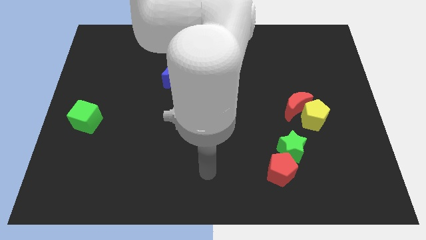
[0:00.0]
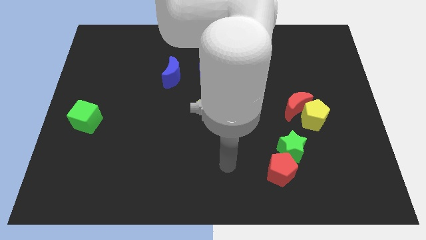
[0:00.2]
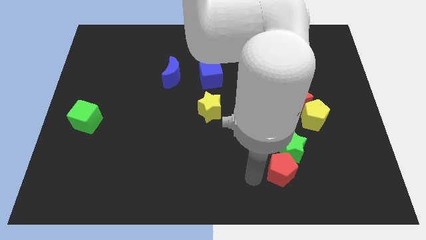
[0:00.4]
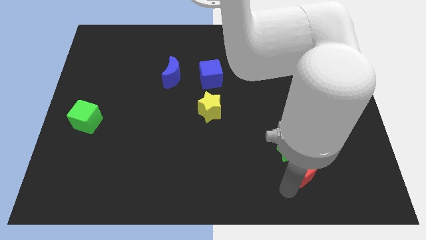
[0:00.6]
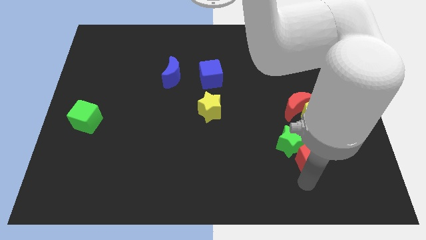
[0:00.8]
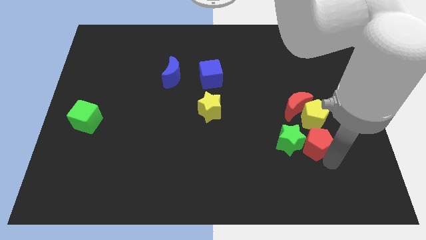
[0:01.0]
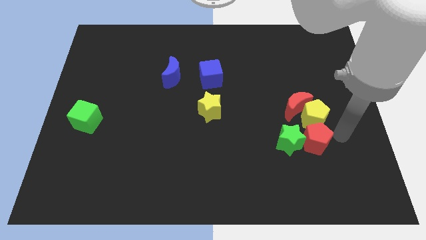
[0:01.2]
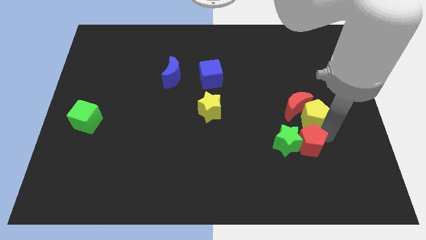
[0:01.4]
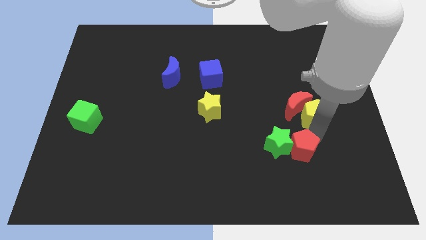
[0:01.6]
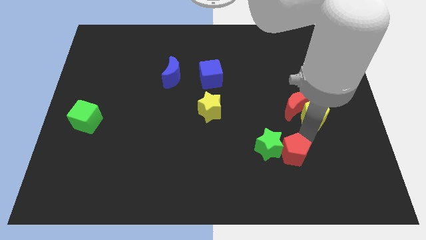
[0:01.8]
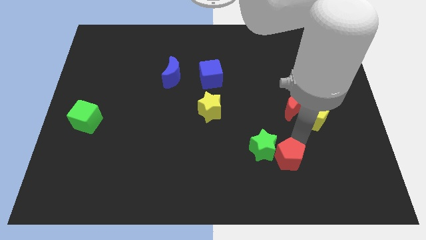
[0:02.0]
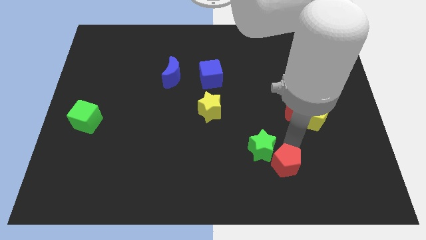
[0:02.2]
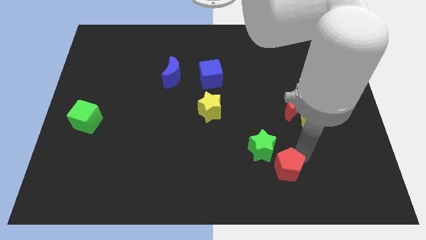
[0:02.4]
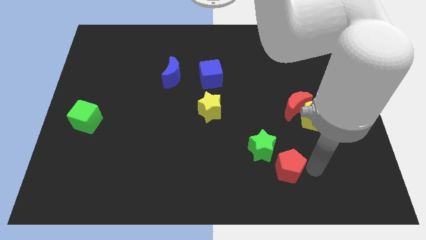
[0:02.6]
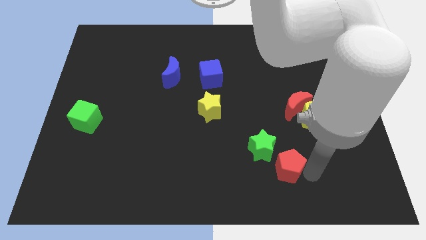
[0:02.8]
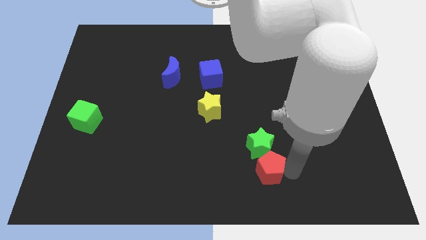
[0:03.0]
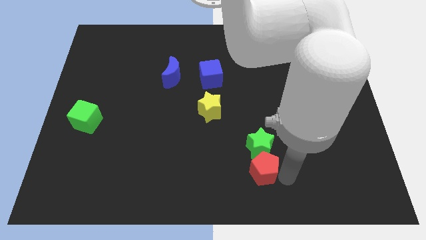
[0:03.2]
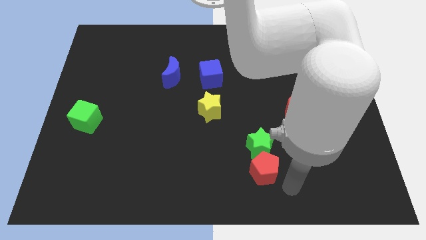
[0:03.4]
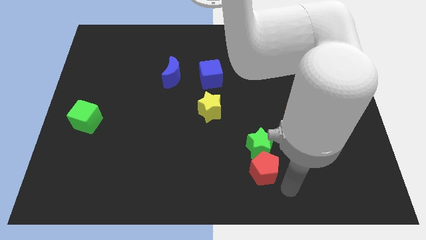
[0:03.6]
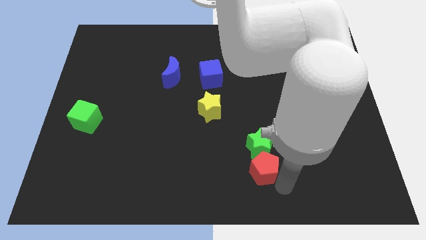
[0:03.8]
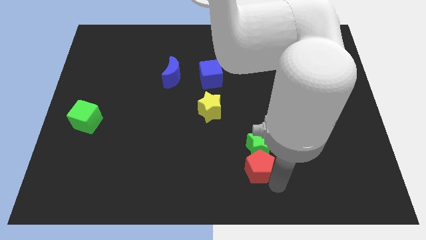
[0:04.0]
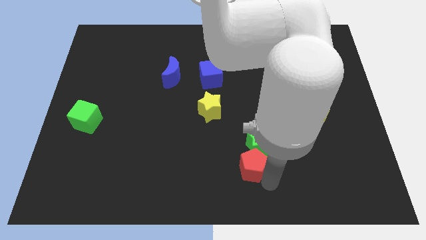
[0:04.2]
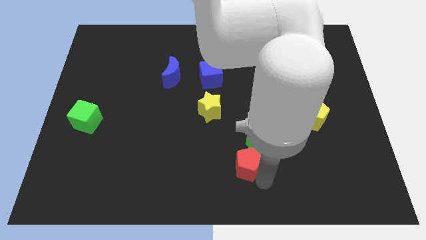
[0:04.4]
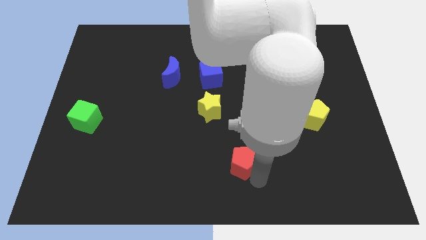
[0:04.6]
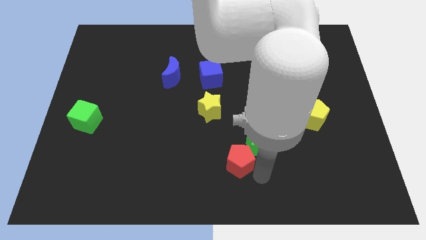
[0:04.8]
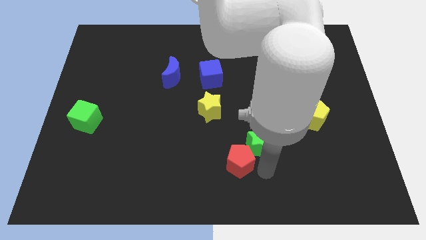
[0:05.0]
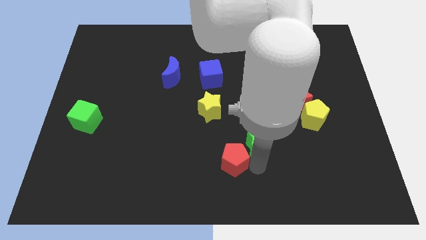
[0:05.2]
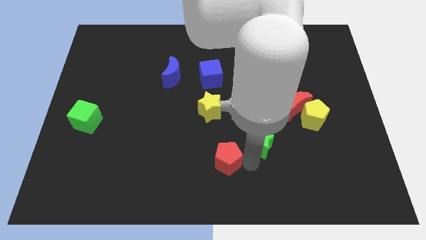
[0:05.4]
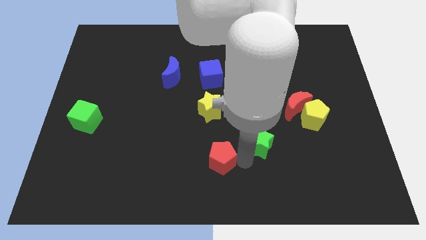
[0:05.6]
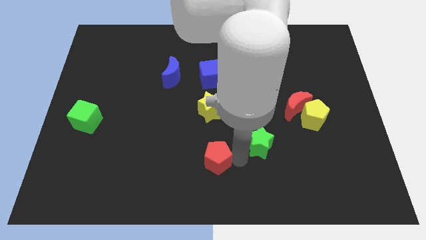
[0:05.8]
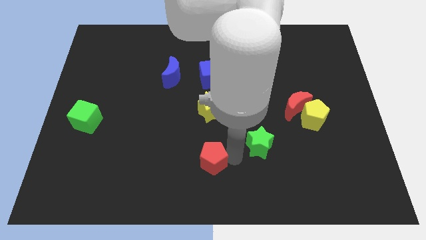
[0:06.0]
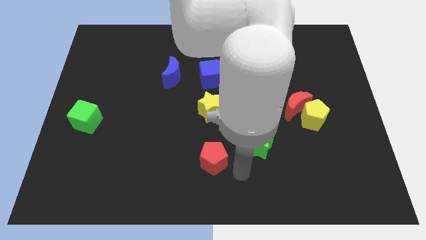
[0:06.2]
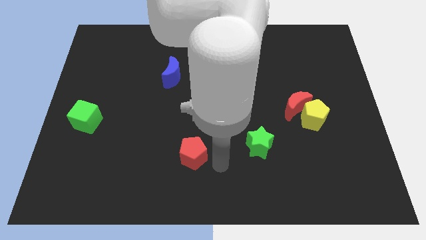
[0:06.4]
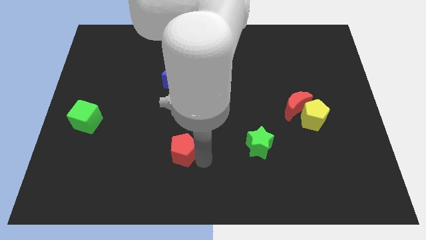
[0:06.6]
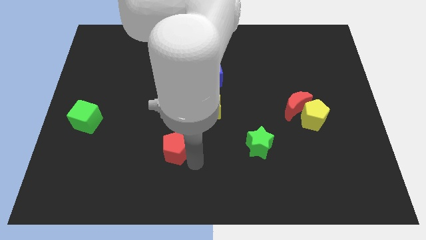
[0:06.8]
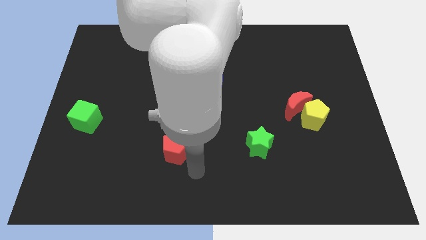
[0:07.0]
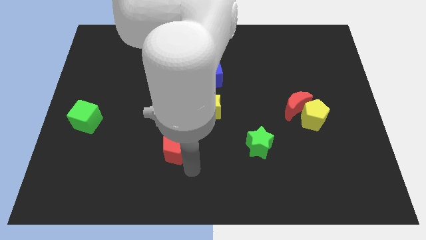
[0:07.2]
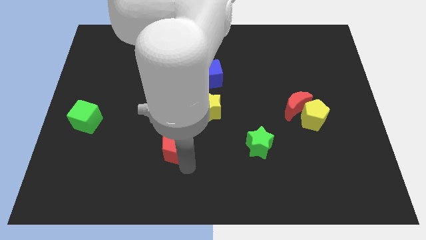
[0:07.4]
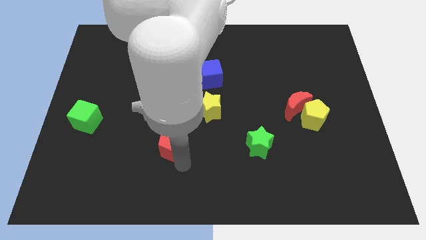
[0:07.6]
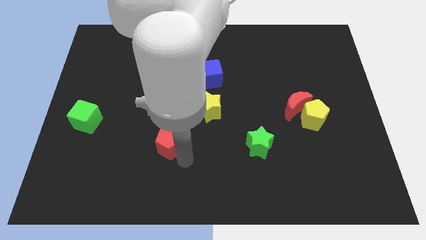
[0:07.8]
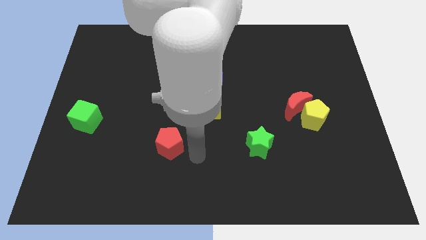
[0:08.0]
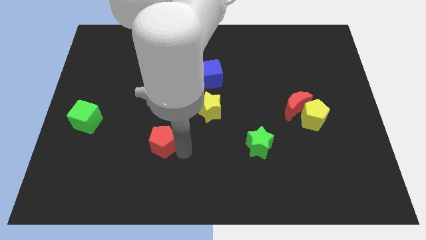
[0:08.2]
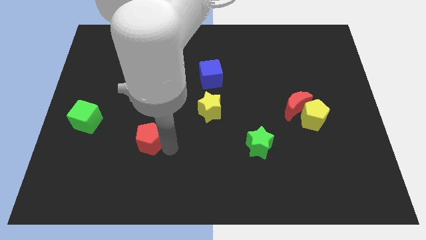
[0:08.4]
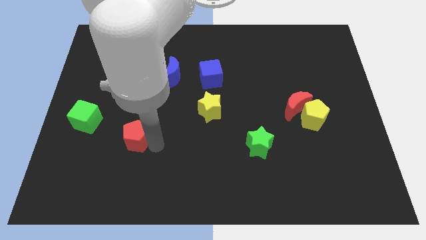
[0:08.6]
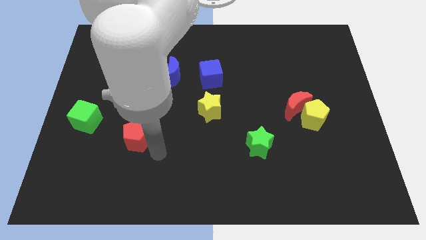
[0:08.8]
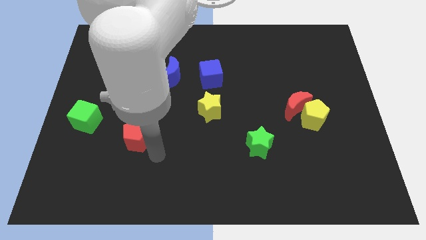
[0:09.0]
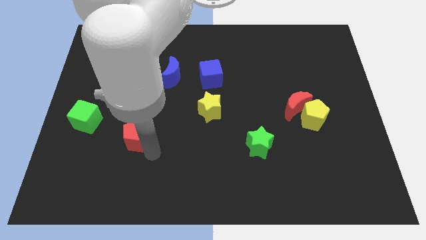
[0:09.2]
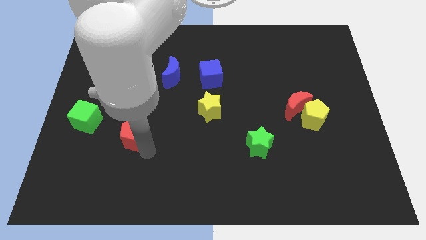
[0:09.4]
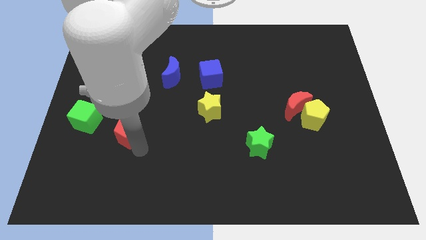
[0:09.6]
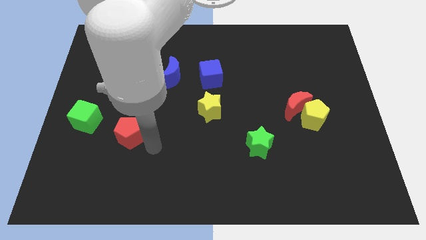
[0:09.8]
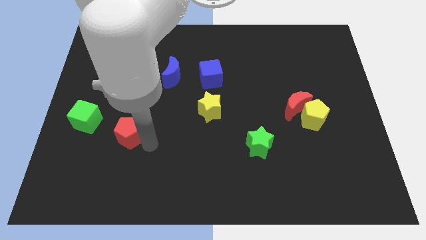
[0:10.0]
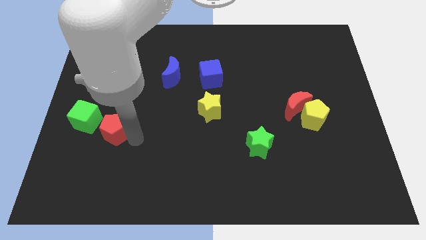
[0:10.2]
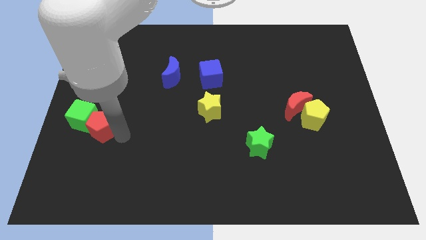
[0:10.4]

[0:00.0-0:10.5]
slide the red pentagon to the green cube
